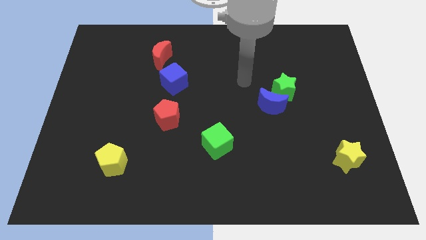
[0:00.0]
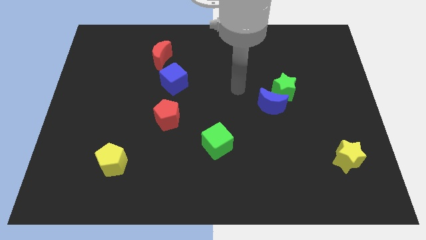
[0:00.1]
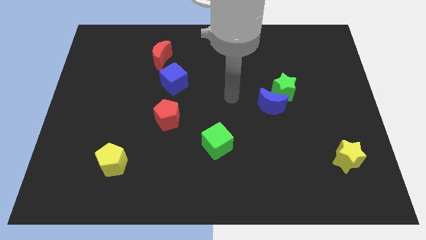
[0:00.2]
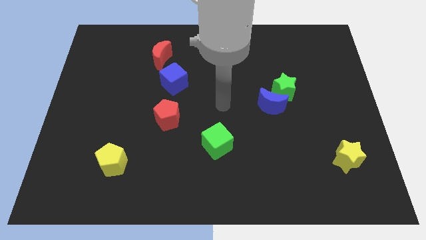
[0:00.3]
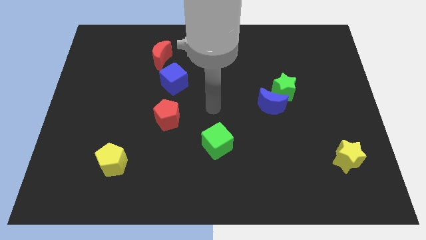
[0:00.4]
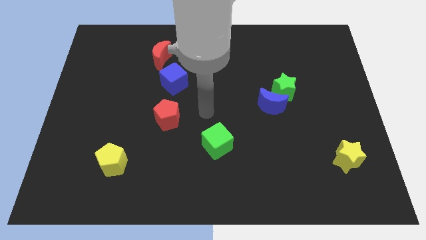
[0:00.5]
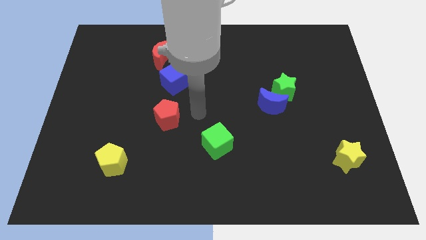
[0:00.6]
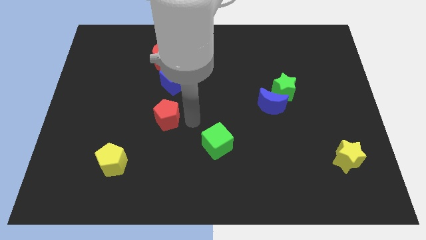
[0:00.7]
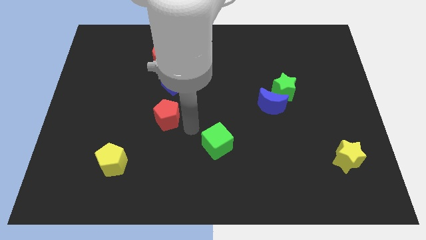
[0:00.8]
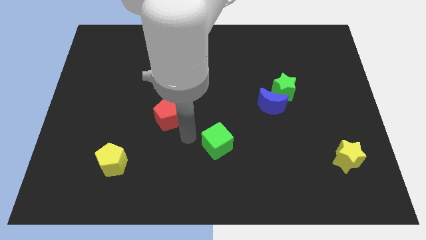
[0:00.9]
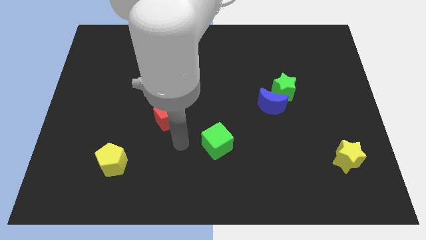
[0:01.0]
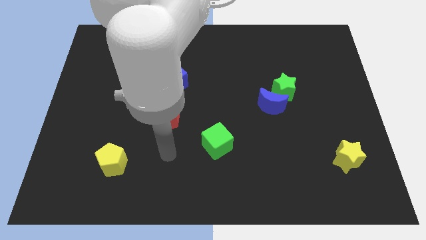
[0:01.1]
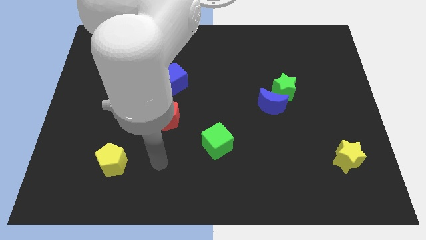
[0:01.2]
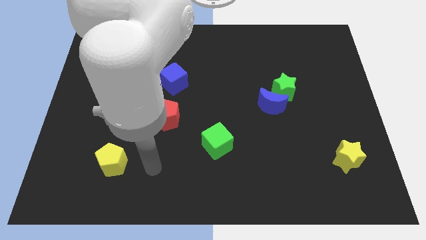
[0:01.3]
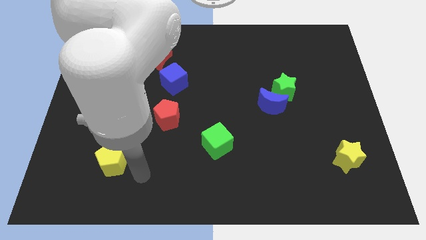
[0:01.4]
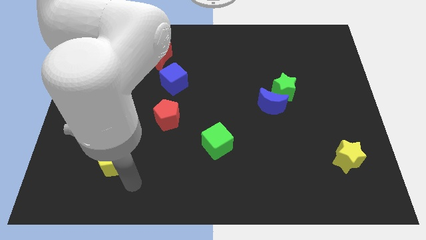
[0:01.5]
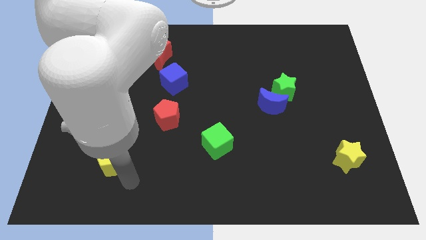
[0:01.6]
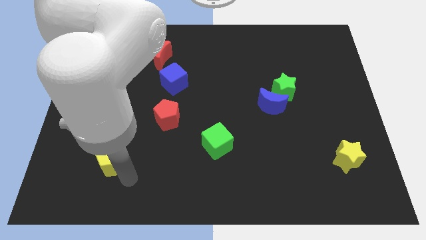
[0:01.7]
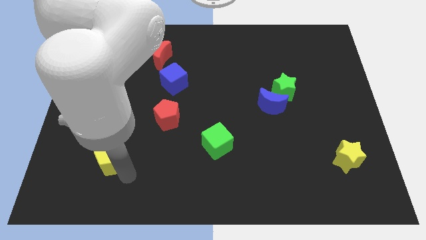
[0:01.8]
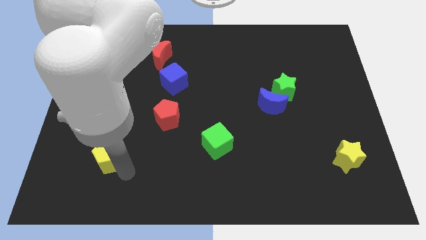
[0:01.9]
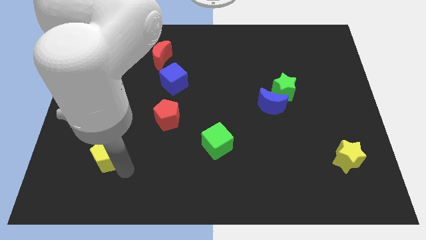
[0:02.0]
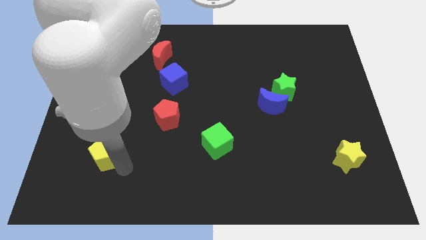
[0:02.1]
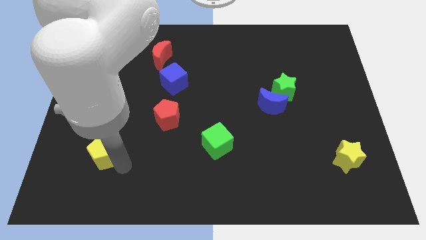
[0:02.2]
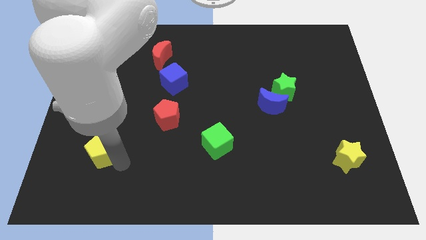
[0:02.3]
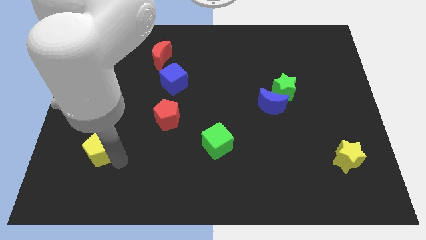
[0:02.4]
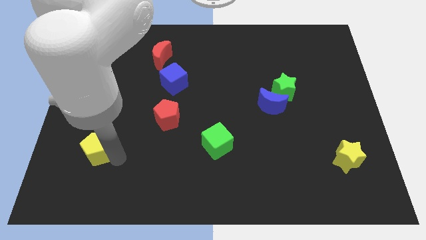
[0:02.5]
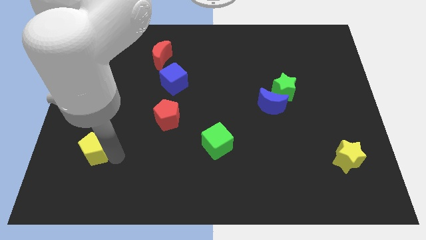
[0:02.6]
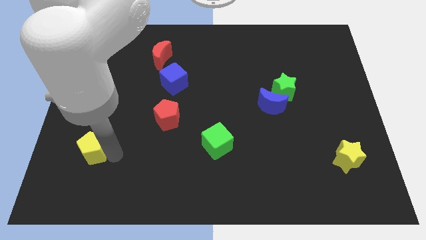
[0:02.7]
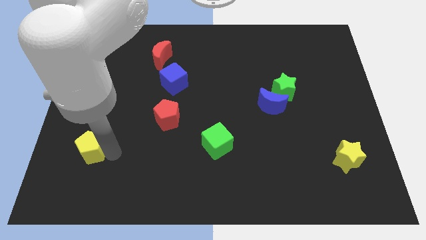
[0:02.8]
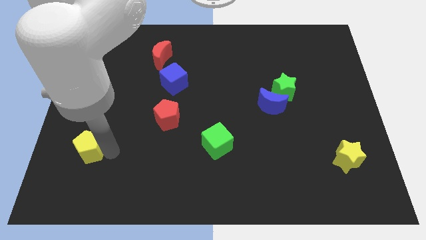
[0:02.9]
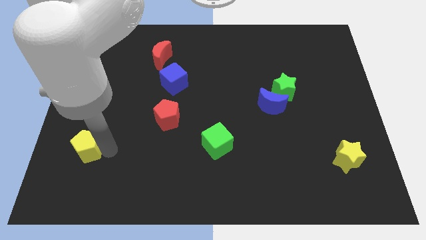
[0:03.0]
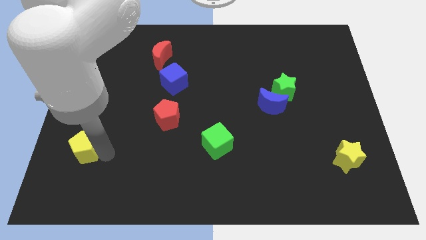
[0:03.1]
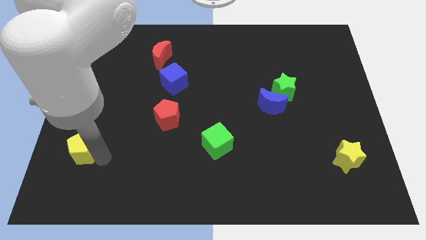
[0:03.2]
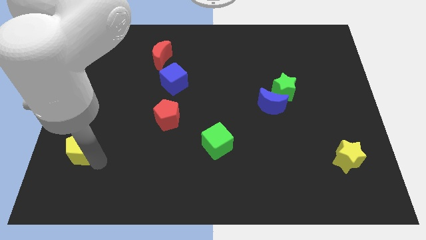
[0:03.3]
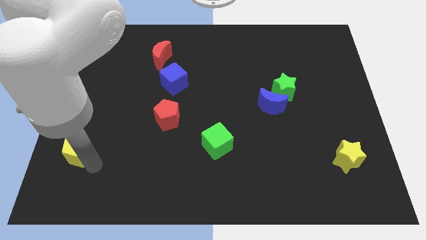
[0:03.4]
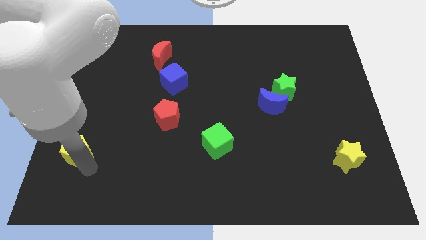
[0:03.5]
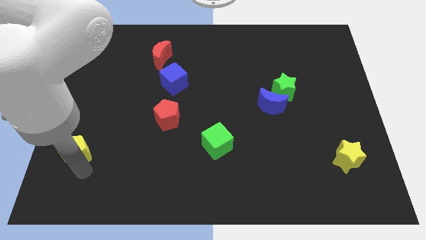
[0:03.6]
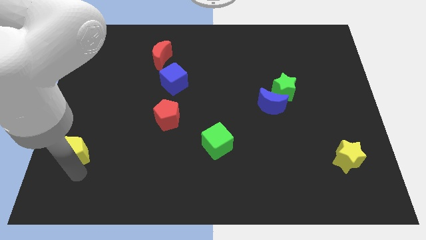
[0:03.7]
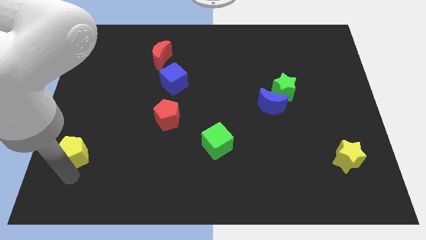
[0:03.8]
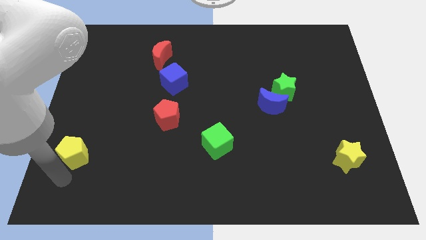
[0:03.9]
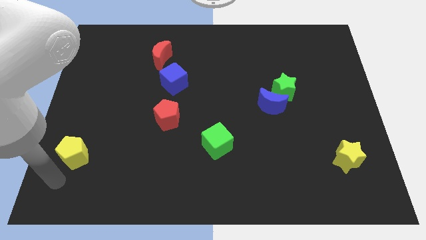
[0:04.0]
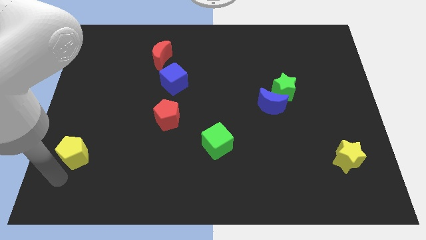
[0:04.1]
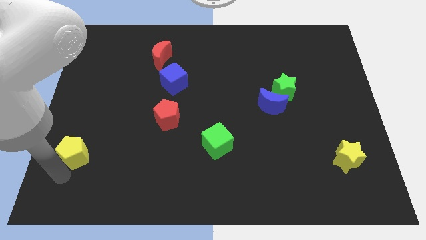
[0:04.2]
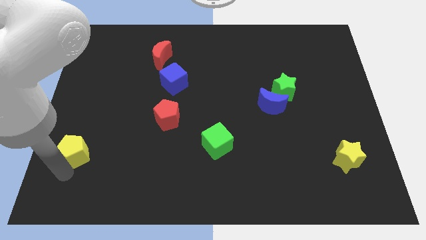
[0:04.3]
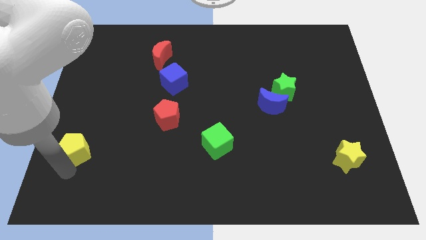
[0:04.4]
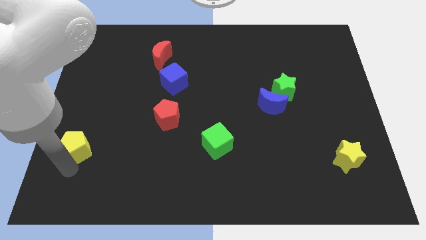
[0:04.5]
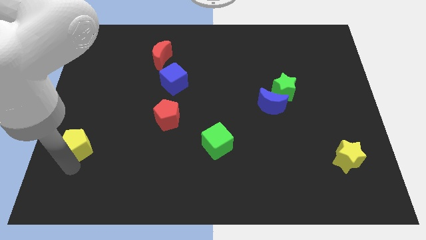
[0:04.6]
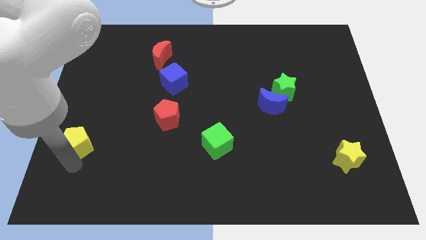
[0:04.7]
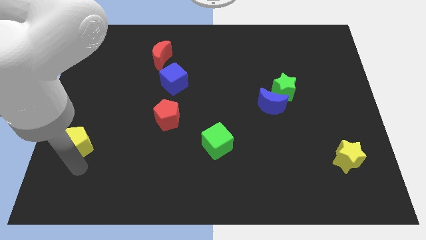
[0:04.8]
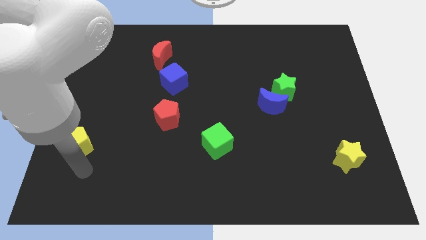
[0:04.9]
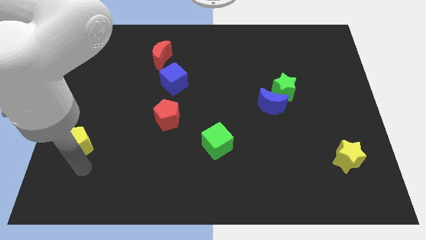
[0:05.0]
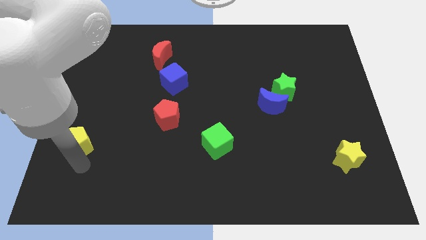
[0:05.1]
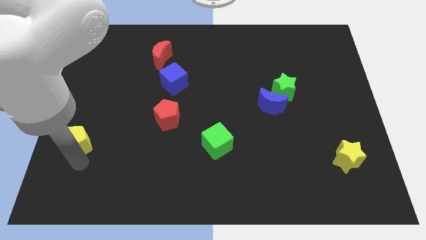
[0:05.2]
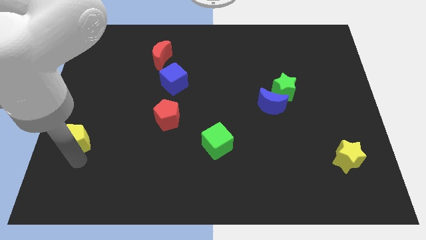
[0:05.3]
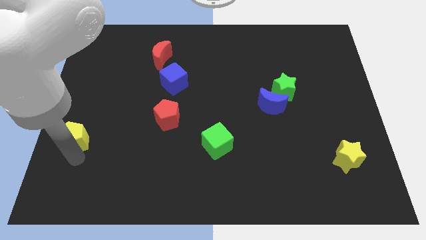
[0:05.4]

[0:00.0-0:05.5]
put the yellow pentagon to the left side
